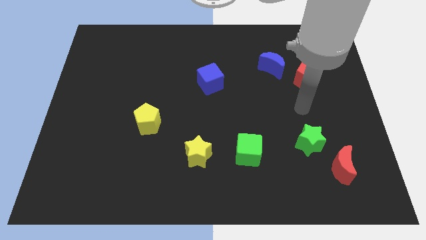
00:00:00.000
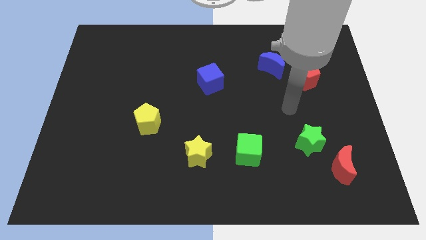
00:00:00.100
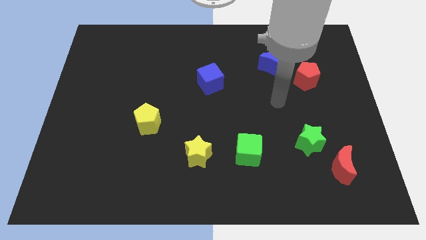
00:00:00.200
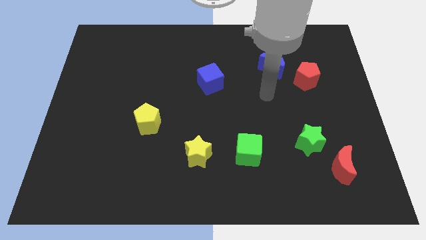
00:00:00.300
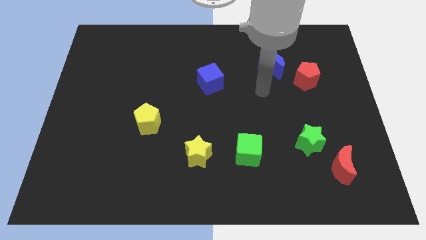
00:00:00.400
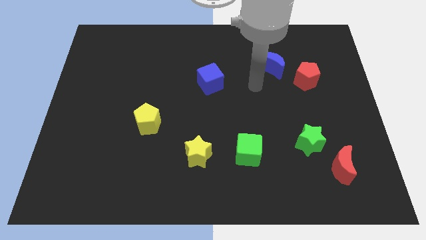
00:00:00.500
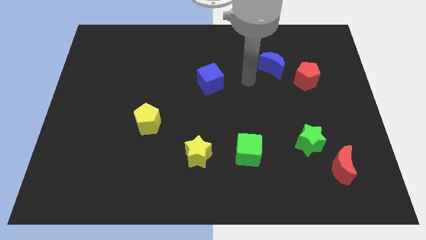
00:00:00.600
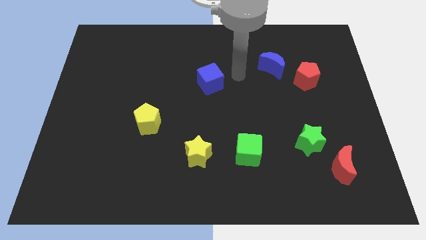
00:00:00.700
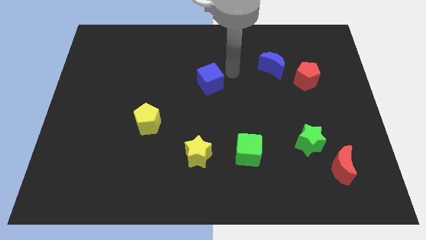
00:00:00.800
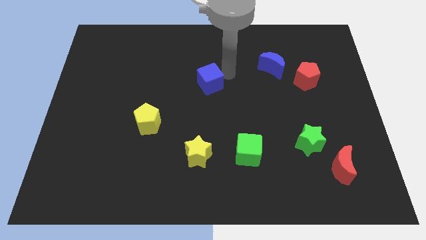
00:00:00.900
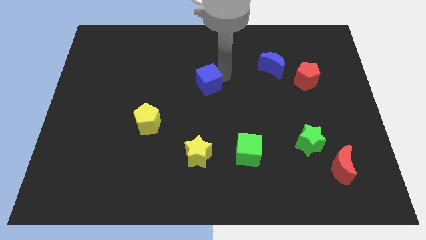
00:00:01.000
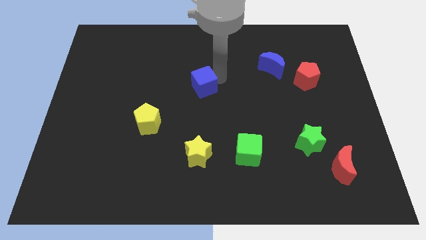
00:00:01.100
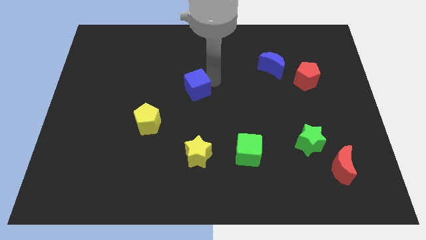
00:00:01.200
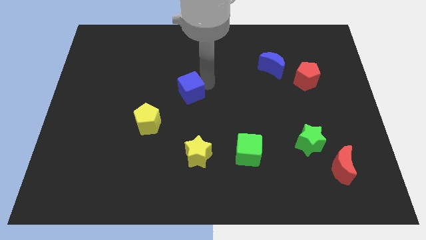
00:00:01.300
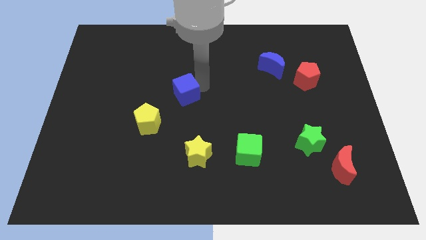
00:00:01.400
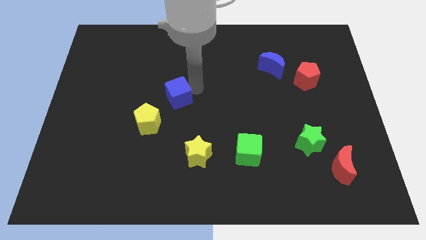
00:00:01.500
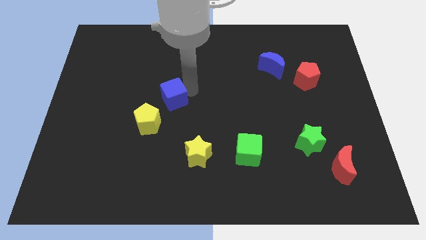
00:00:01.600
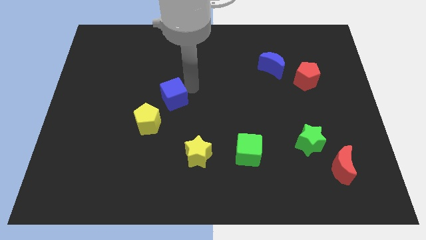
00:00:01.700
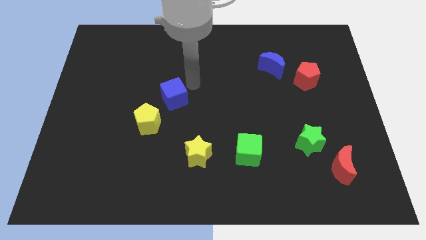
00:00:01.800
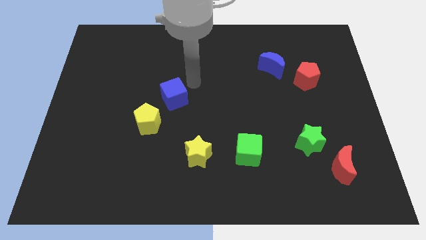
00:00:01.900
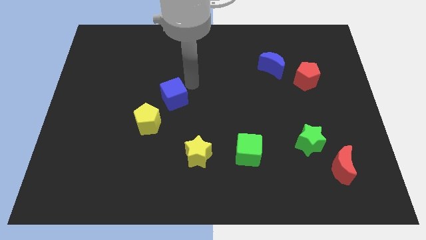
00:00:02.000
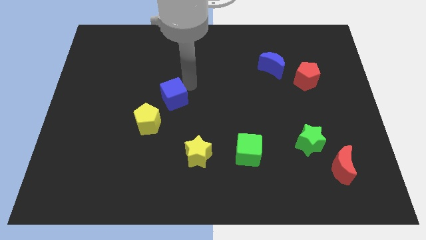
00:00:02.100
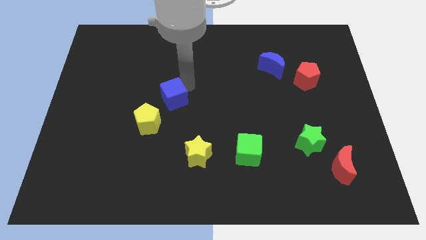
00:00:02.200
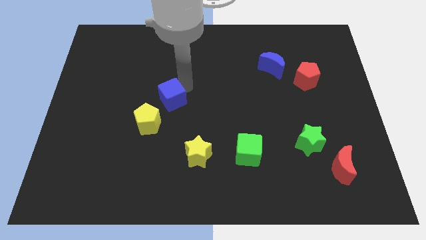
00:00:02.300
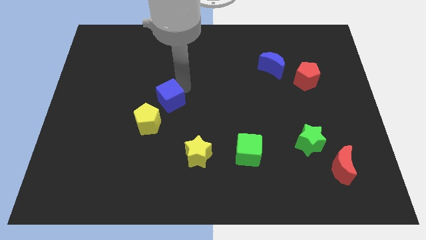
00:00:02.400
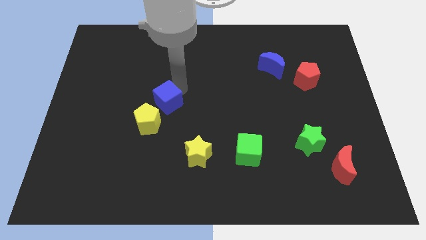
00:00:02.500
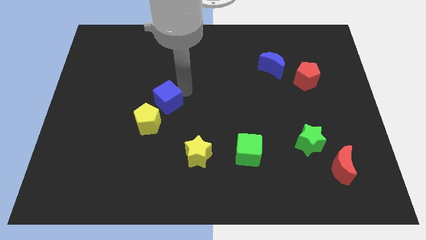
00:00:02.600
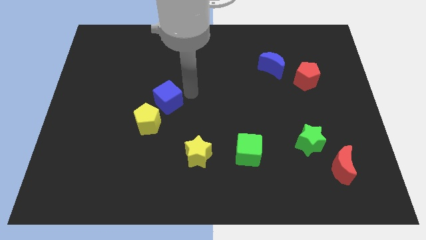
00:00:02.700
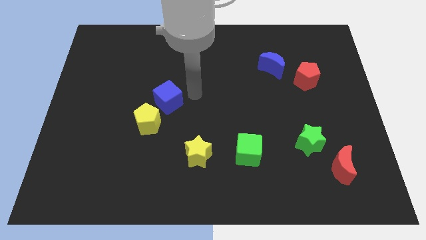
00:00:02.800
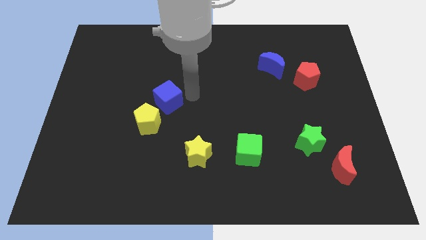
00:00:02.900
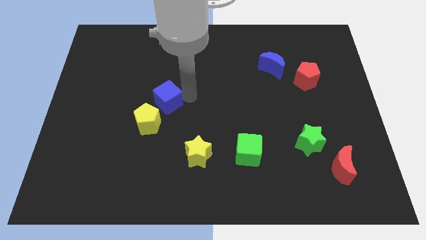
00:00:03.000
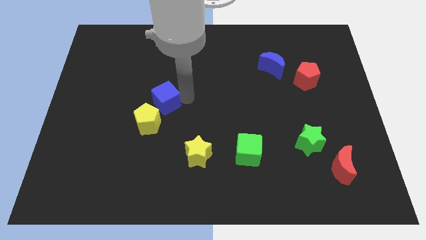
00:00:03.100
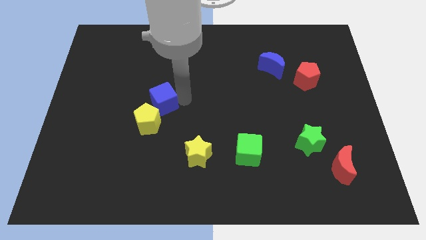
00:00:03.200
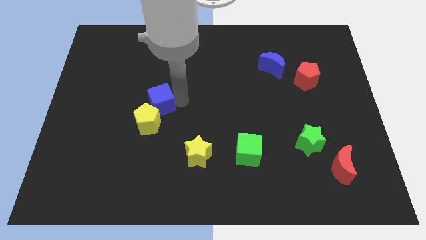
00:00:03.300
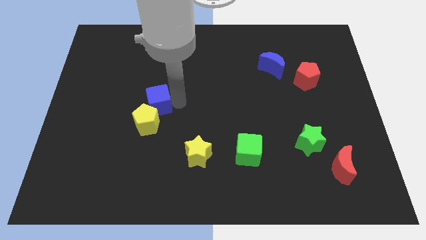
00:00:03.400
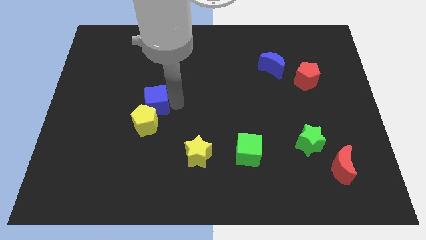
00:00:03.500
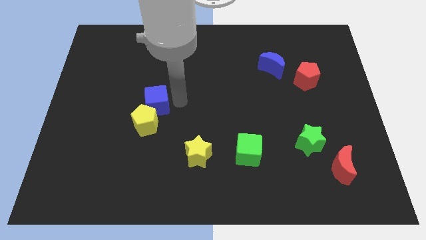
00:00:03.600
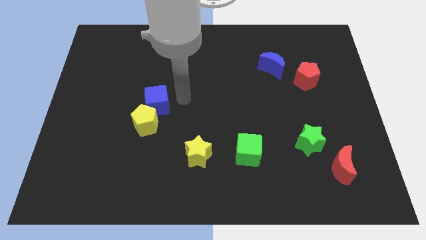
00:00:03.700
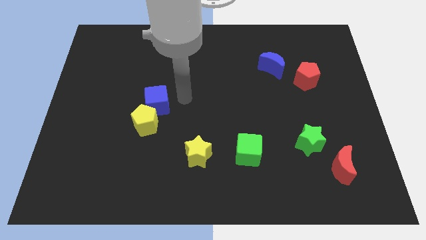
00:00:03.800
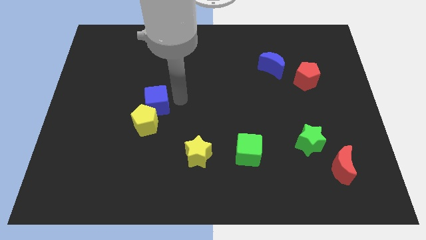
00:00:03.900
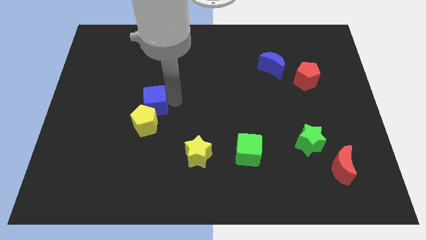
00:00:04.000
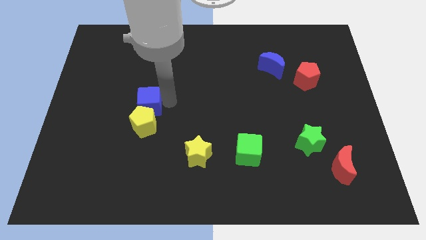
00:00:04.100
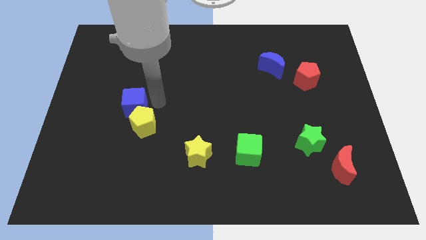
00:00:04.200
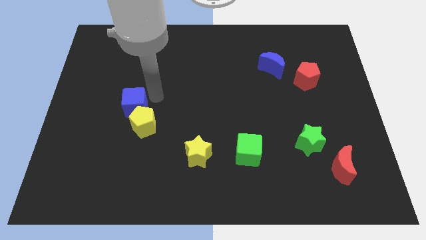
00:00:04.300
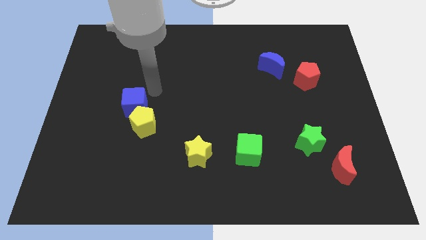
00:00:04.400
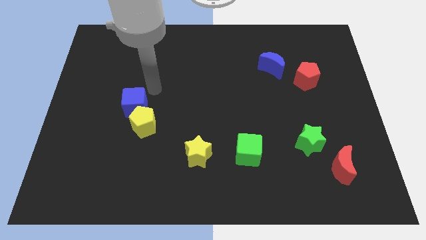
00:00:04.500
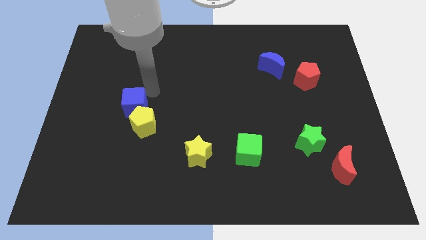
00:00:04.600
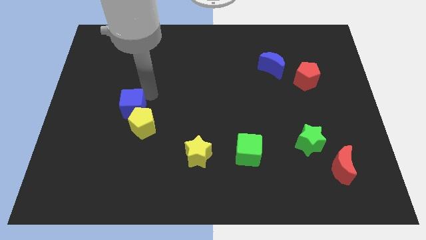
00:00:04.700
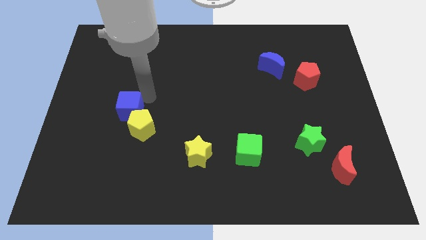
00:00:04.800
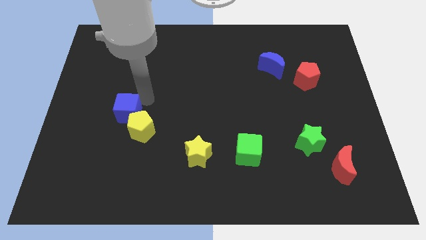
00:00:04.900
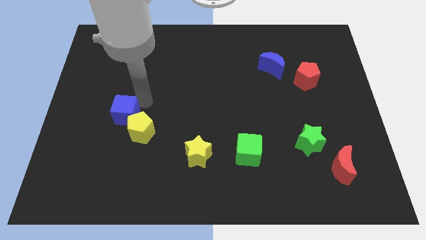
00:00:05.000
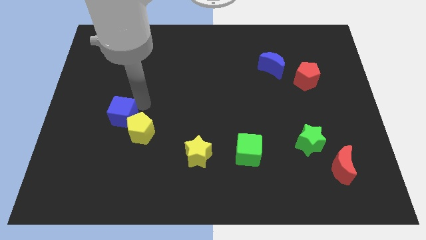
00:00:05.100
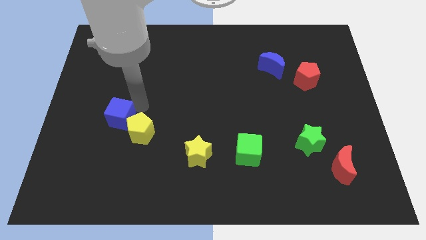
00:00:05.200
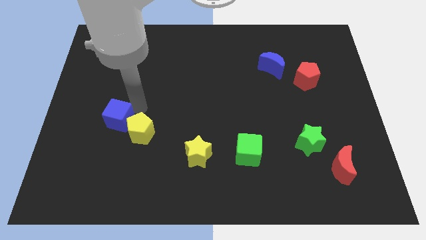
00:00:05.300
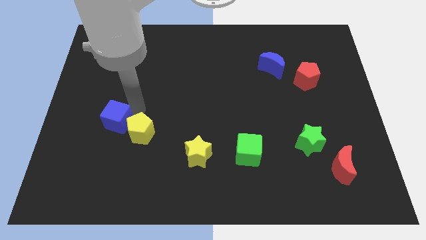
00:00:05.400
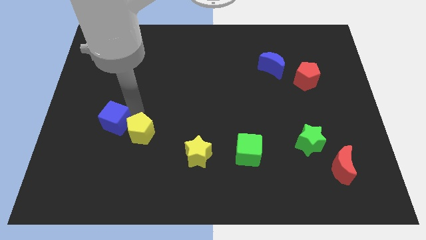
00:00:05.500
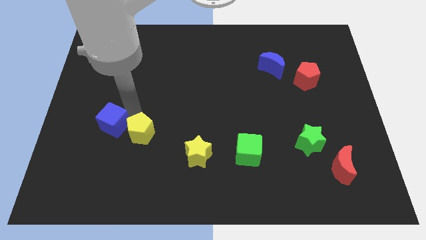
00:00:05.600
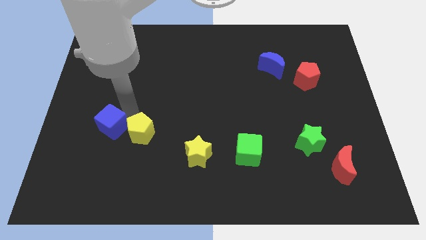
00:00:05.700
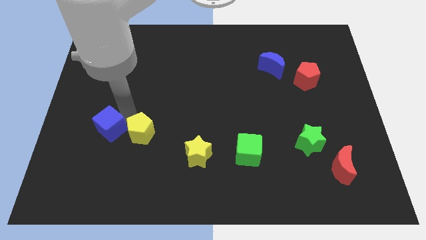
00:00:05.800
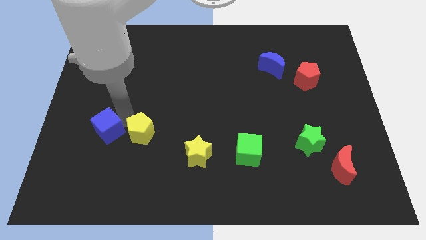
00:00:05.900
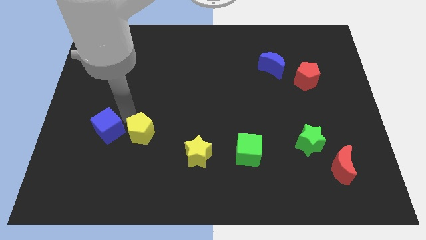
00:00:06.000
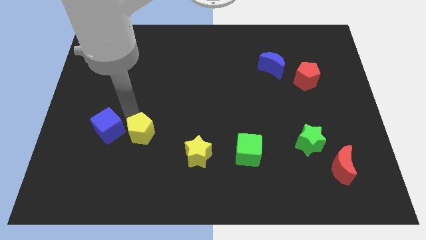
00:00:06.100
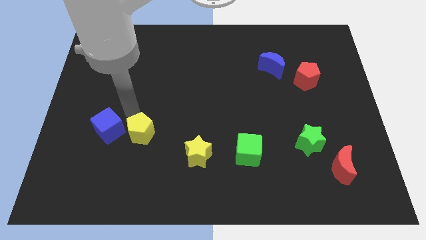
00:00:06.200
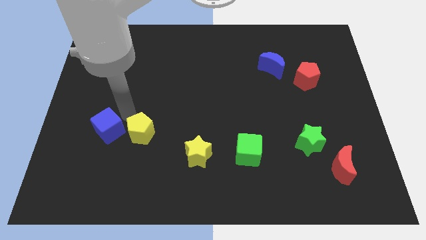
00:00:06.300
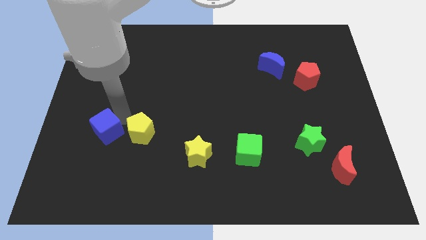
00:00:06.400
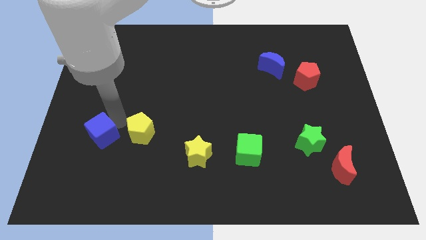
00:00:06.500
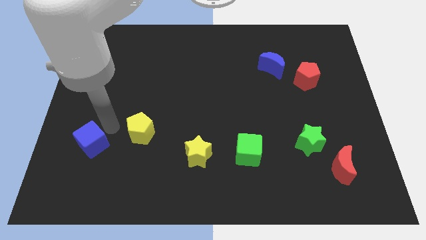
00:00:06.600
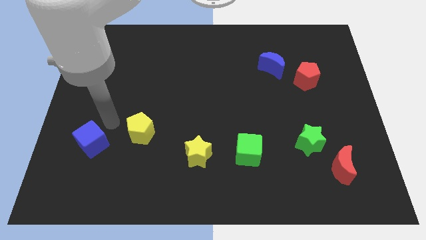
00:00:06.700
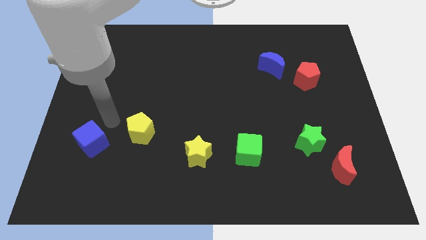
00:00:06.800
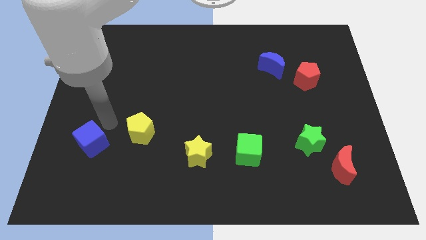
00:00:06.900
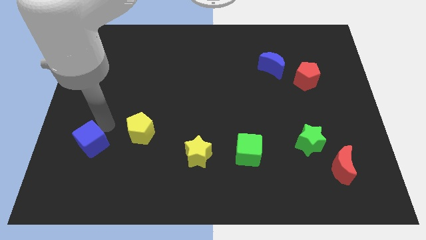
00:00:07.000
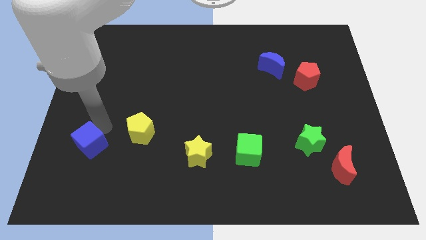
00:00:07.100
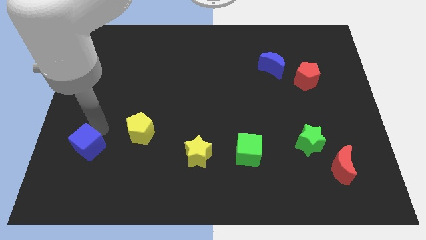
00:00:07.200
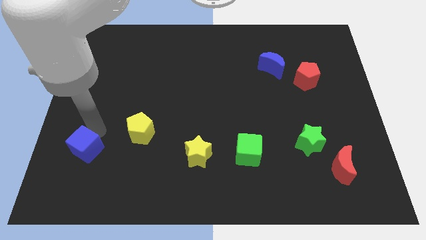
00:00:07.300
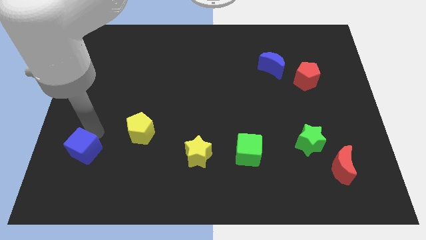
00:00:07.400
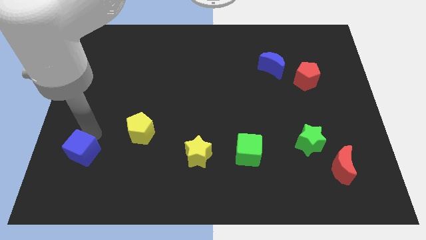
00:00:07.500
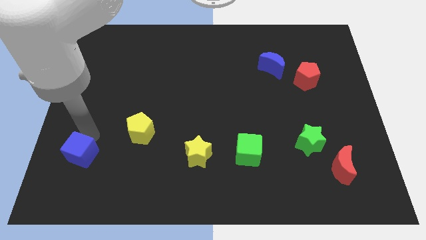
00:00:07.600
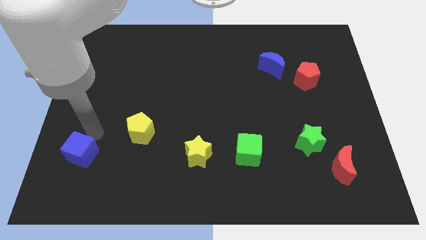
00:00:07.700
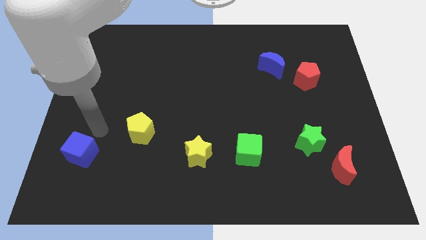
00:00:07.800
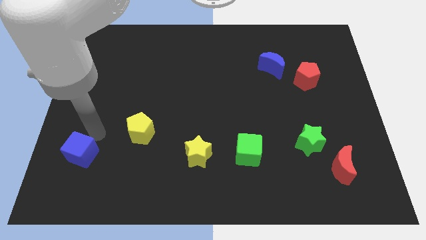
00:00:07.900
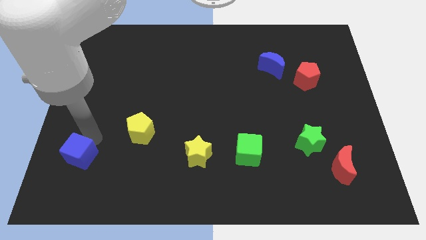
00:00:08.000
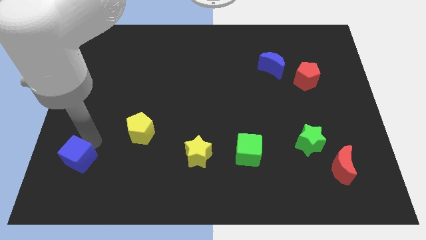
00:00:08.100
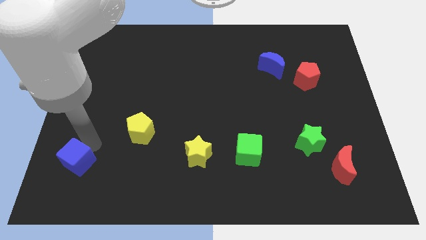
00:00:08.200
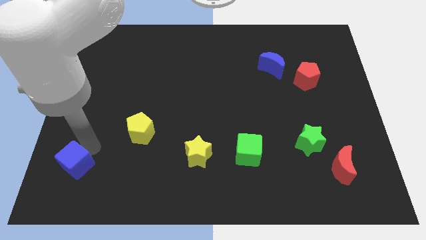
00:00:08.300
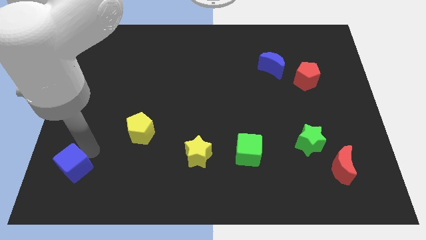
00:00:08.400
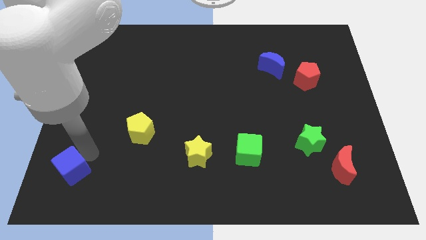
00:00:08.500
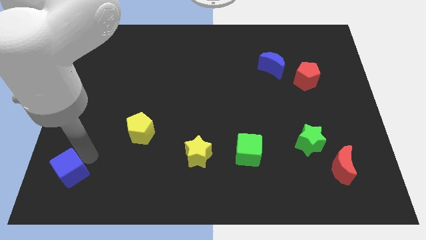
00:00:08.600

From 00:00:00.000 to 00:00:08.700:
put the blue cube to the lower left corner
